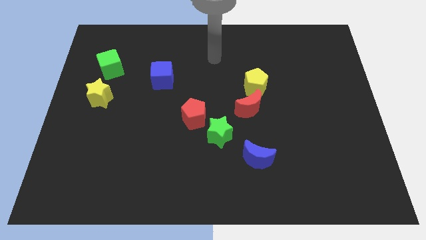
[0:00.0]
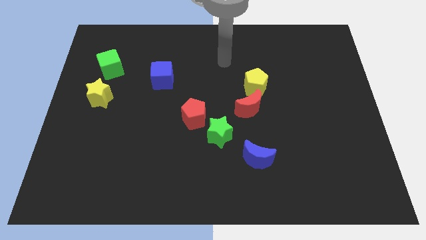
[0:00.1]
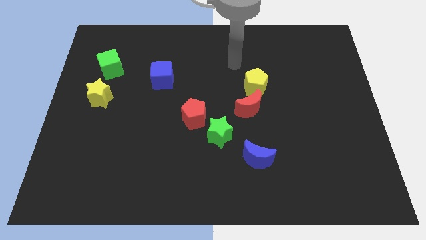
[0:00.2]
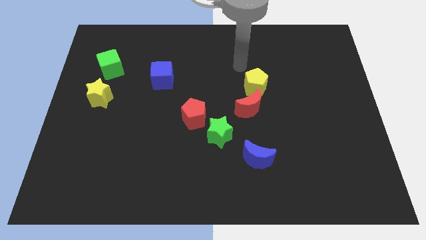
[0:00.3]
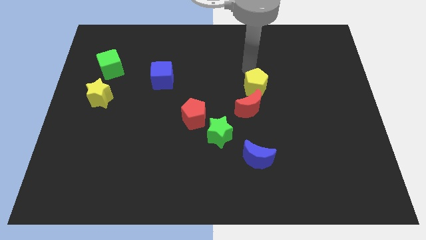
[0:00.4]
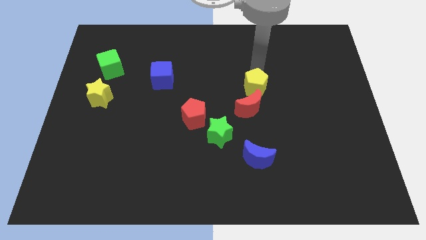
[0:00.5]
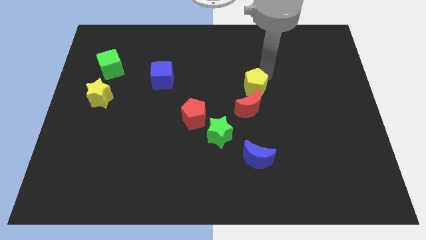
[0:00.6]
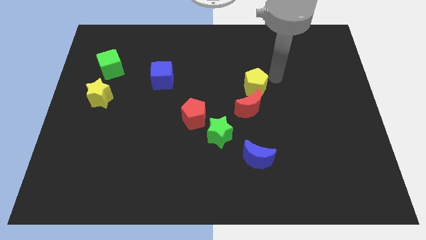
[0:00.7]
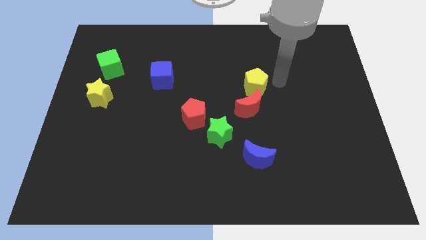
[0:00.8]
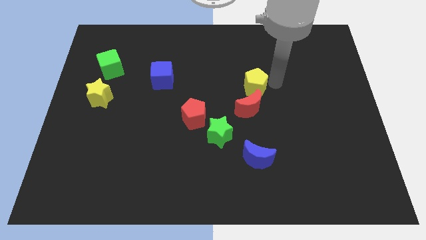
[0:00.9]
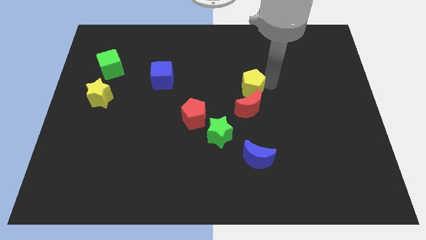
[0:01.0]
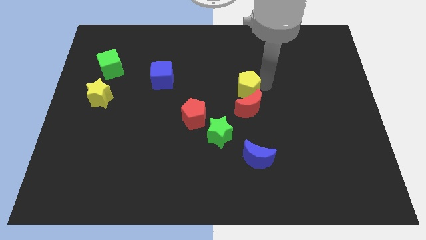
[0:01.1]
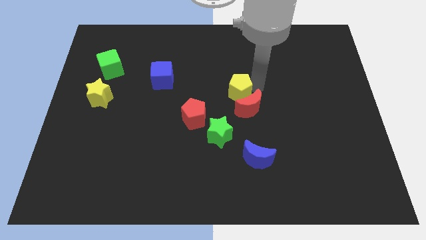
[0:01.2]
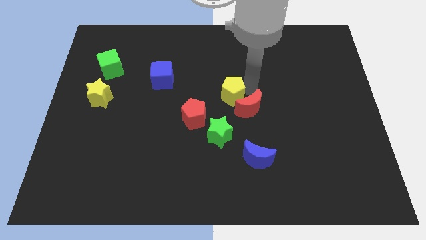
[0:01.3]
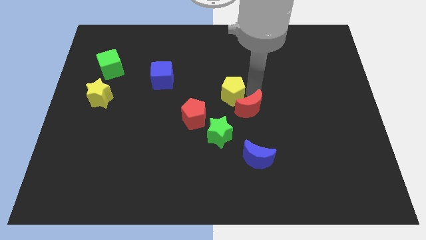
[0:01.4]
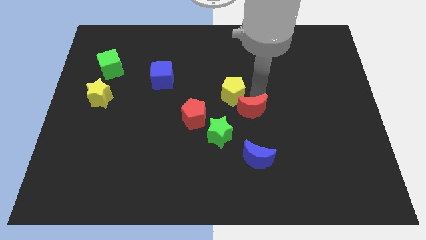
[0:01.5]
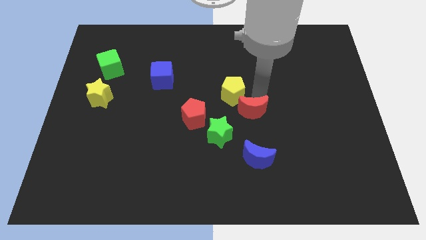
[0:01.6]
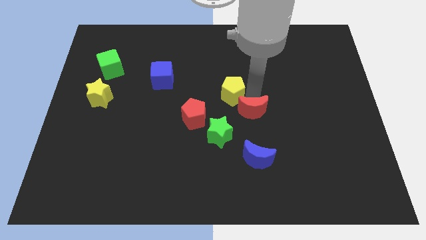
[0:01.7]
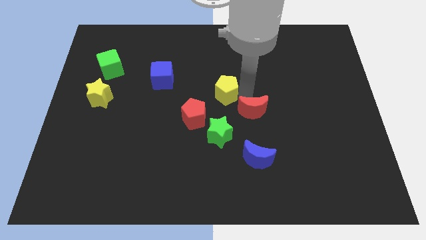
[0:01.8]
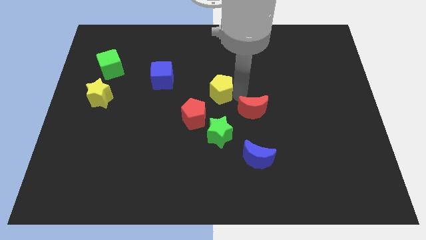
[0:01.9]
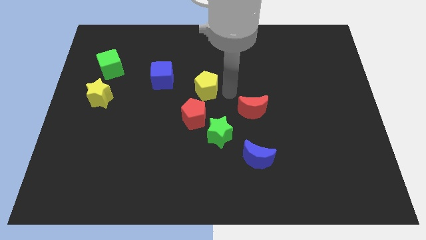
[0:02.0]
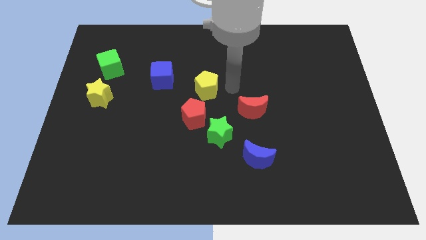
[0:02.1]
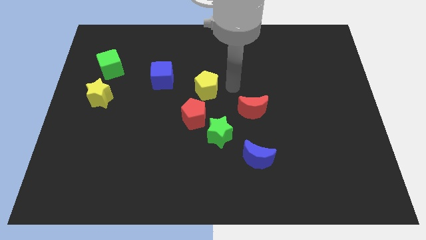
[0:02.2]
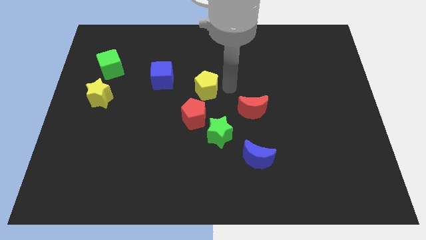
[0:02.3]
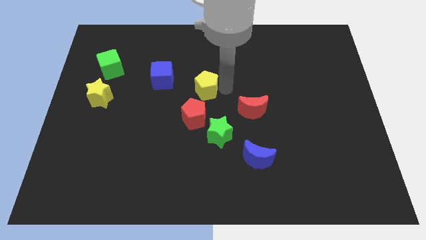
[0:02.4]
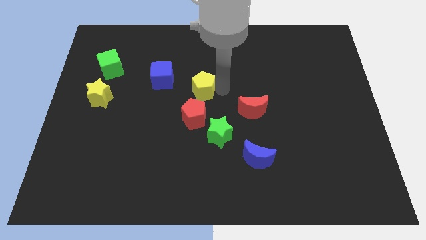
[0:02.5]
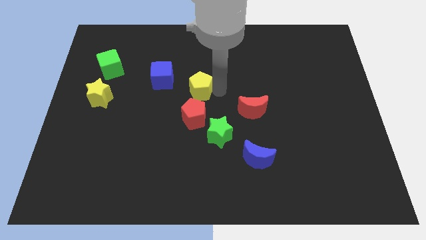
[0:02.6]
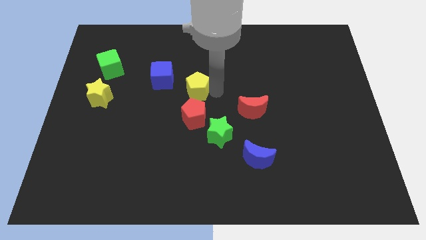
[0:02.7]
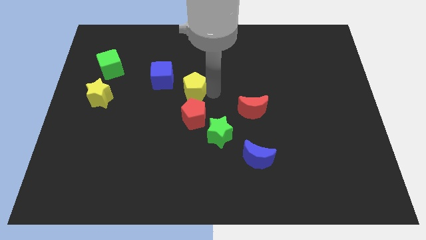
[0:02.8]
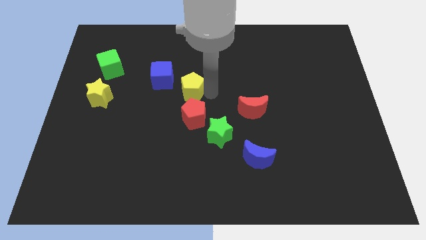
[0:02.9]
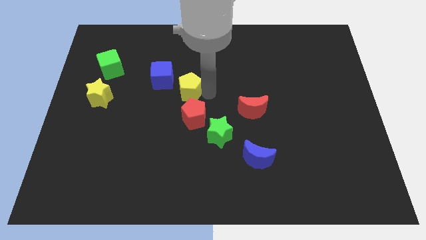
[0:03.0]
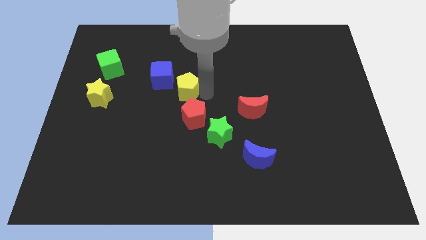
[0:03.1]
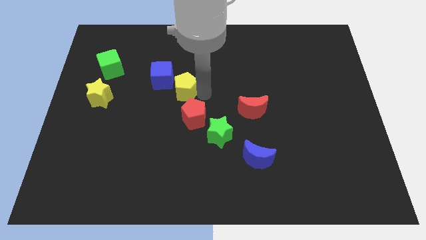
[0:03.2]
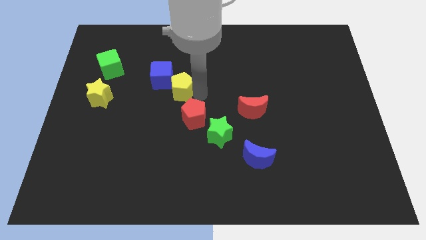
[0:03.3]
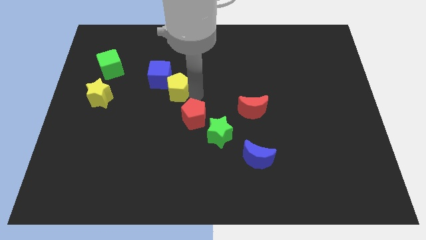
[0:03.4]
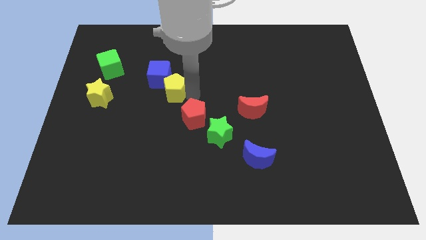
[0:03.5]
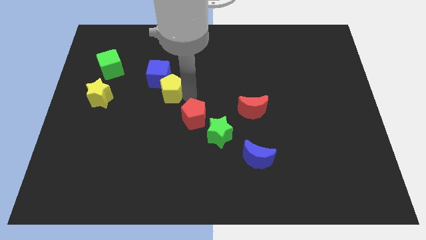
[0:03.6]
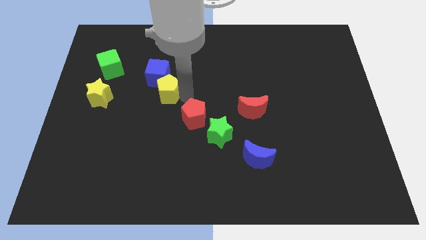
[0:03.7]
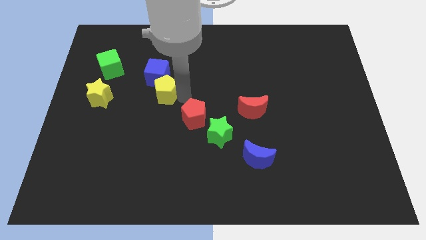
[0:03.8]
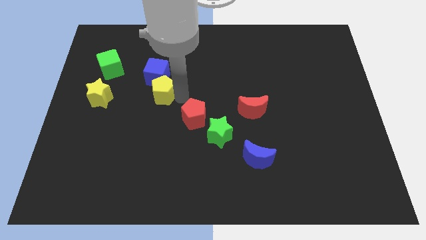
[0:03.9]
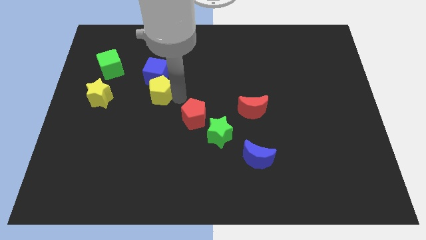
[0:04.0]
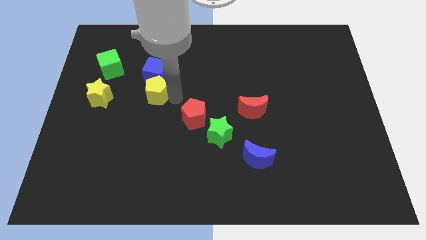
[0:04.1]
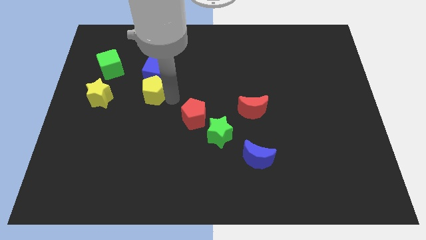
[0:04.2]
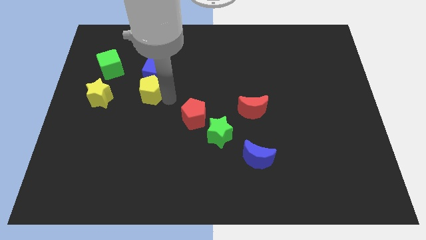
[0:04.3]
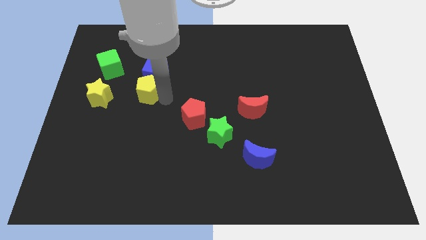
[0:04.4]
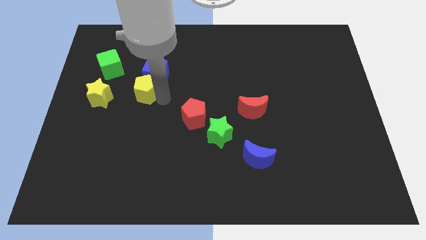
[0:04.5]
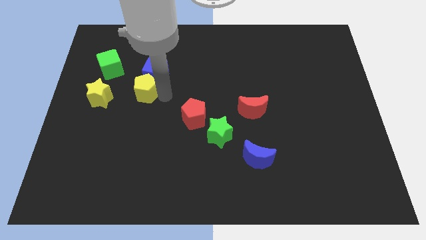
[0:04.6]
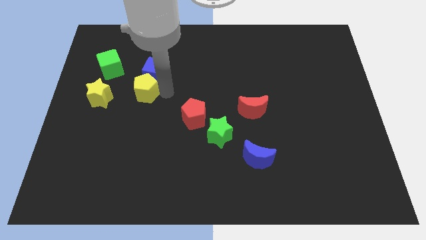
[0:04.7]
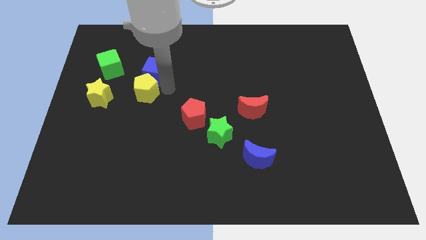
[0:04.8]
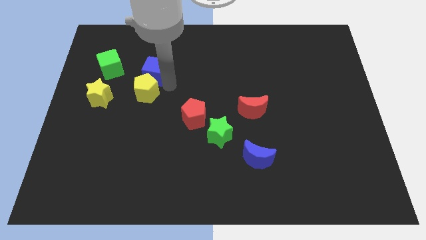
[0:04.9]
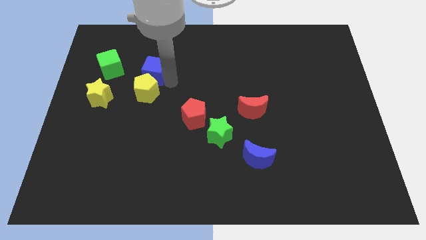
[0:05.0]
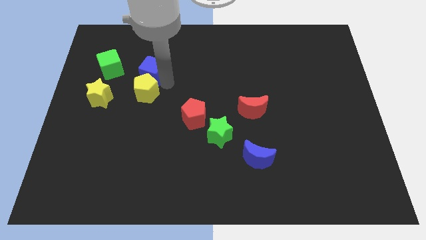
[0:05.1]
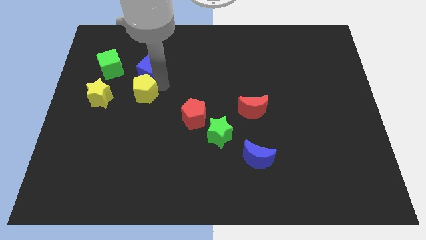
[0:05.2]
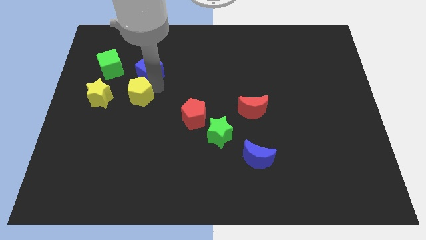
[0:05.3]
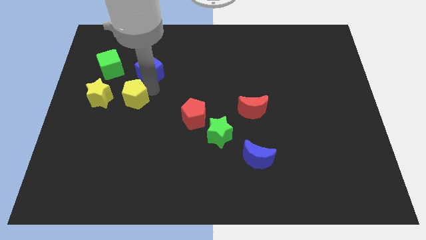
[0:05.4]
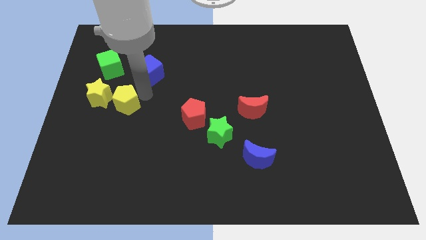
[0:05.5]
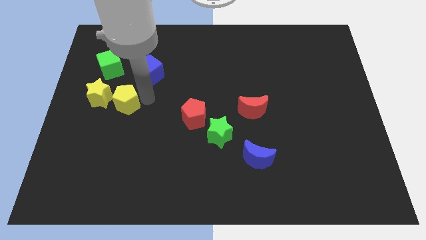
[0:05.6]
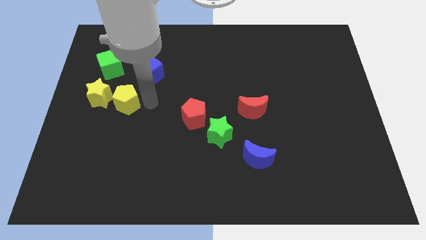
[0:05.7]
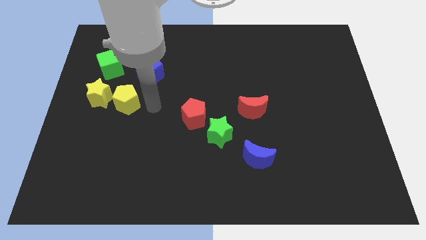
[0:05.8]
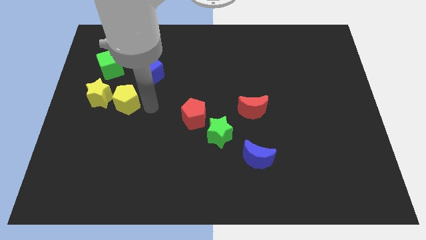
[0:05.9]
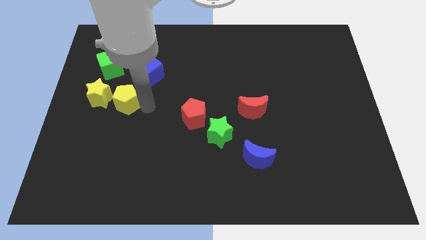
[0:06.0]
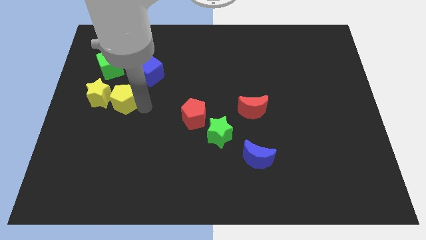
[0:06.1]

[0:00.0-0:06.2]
push the yellow pentagon close to the yellow star
